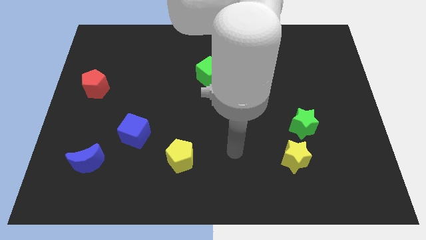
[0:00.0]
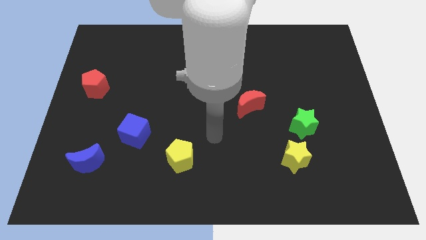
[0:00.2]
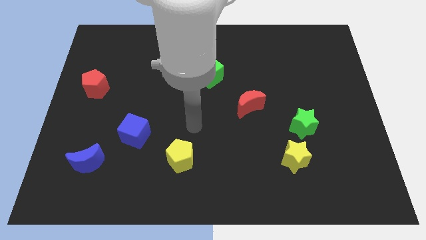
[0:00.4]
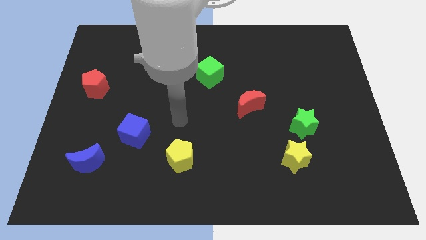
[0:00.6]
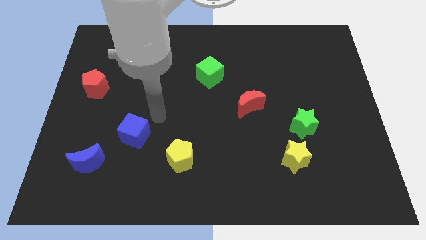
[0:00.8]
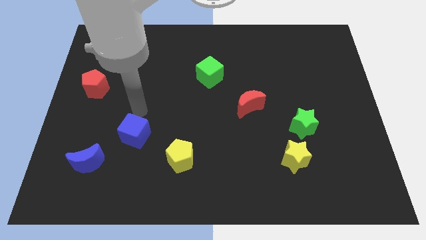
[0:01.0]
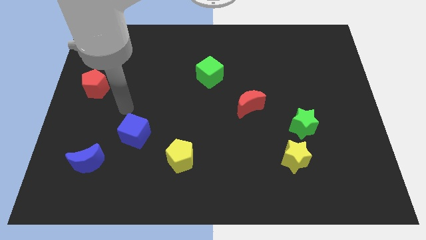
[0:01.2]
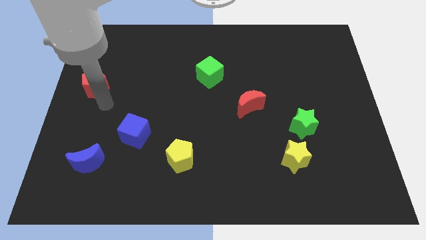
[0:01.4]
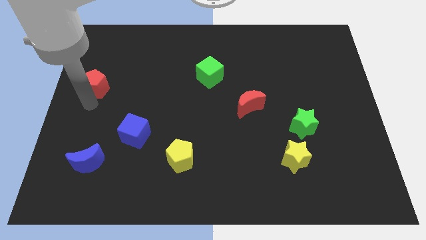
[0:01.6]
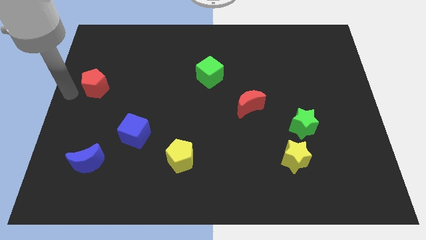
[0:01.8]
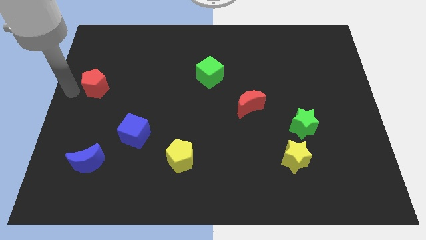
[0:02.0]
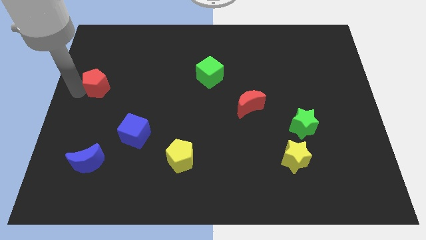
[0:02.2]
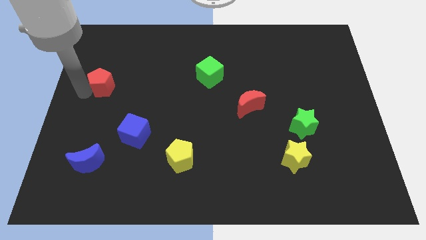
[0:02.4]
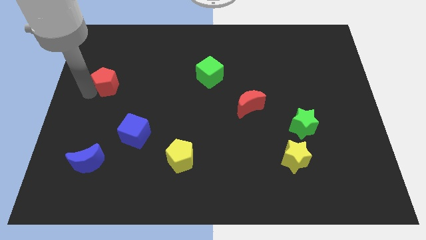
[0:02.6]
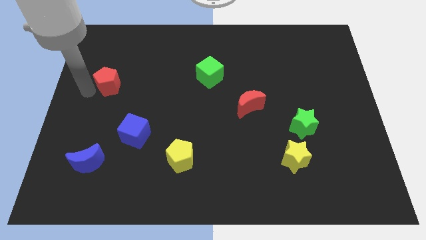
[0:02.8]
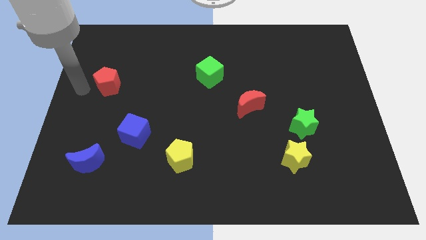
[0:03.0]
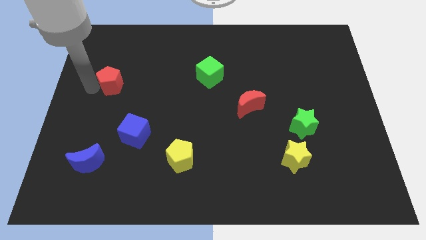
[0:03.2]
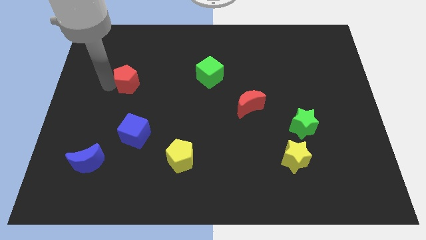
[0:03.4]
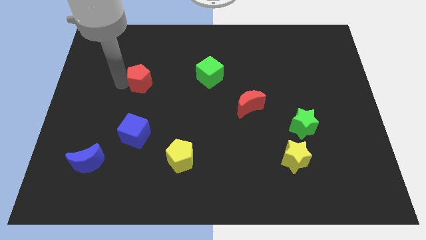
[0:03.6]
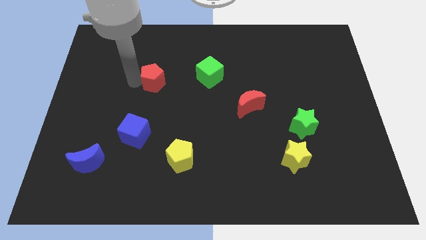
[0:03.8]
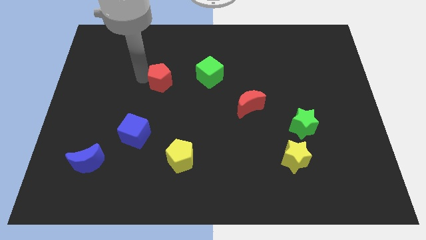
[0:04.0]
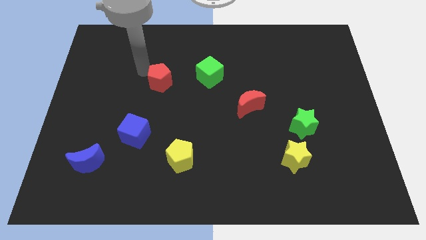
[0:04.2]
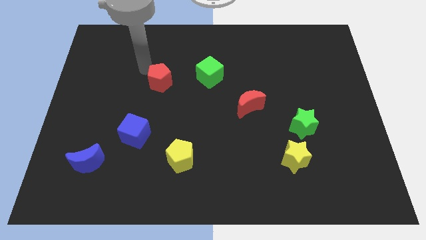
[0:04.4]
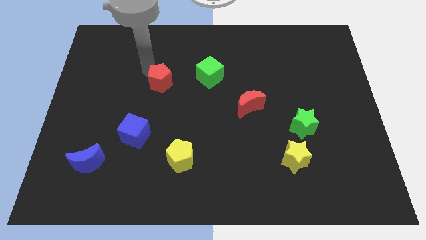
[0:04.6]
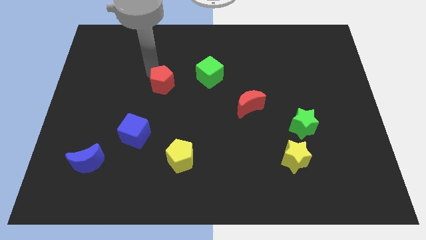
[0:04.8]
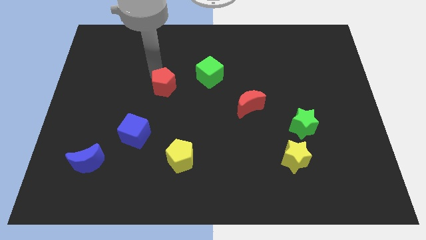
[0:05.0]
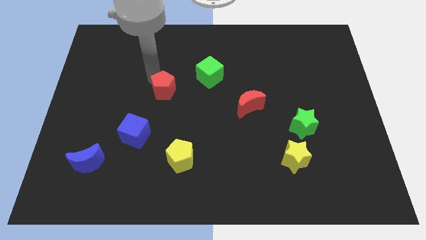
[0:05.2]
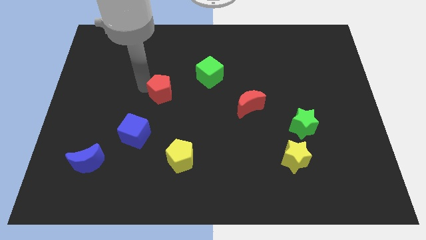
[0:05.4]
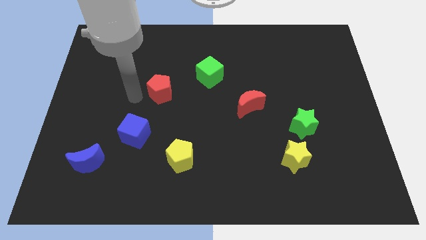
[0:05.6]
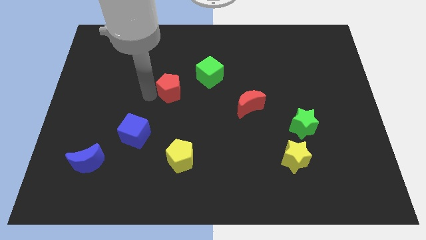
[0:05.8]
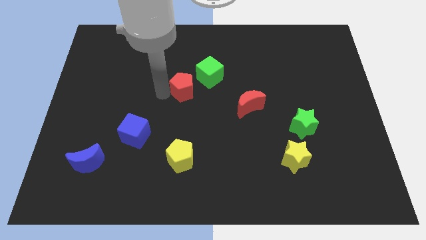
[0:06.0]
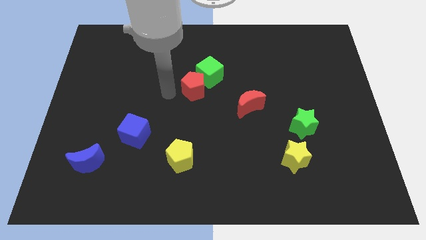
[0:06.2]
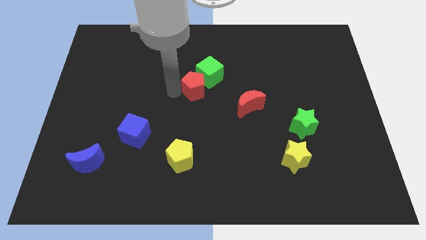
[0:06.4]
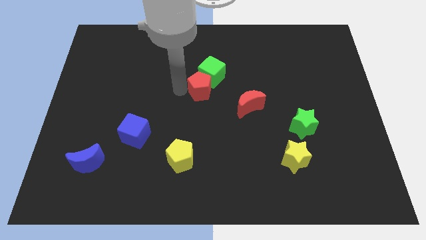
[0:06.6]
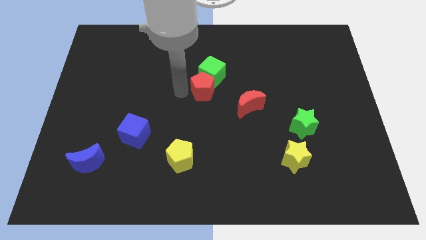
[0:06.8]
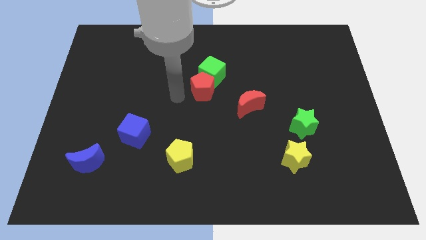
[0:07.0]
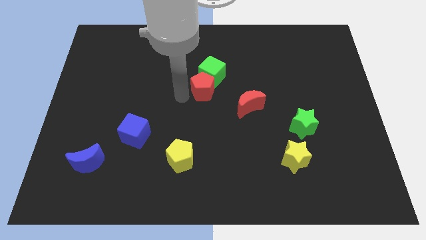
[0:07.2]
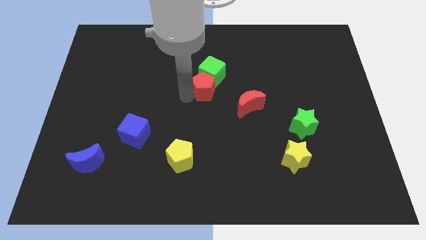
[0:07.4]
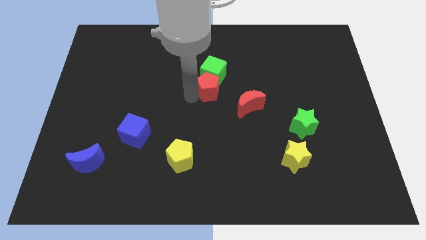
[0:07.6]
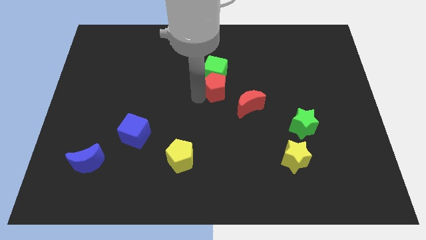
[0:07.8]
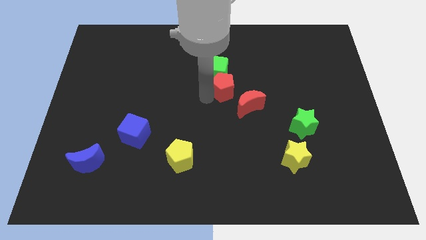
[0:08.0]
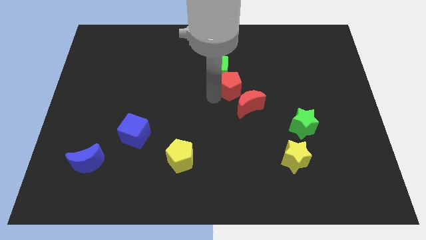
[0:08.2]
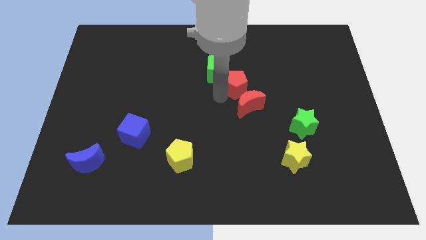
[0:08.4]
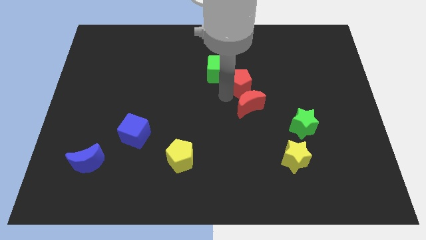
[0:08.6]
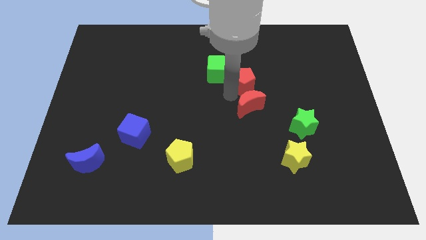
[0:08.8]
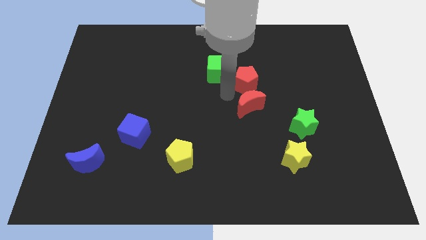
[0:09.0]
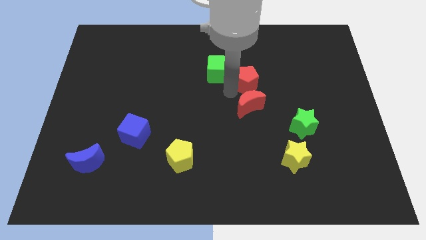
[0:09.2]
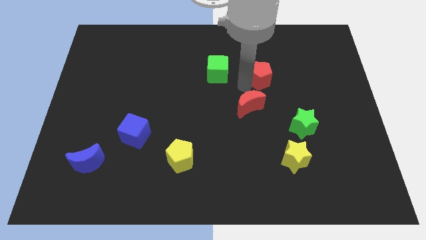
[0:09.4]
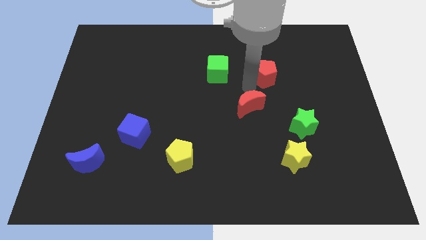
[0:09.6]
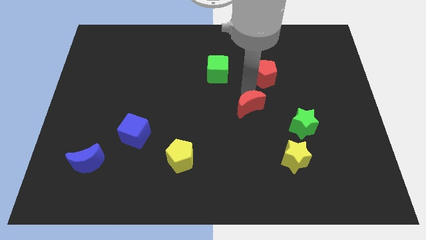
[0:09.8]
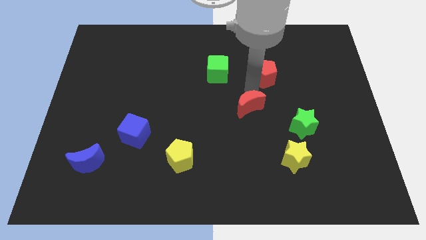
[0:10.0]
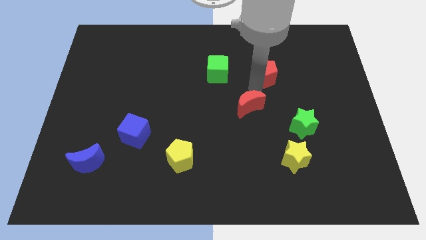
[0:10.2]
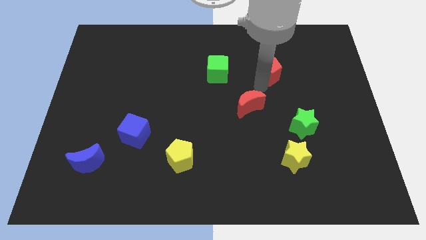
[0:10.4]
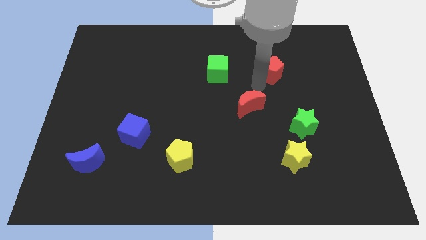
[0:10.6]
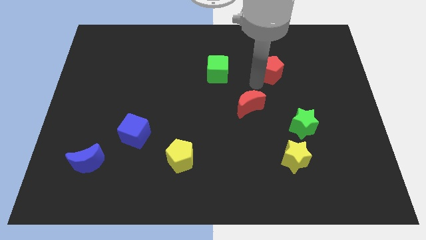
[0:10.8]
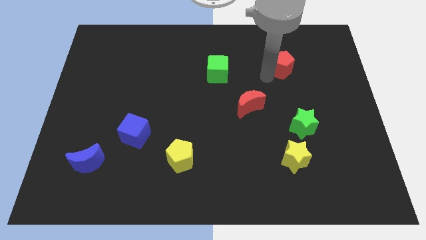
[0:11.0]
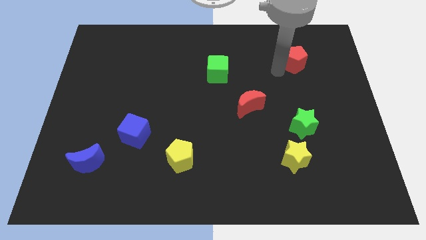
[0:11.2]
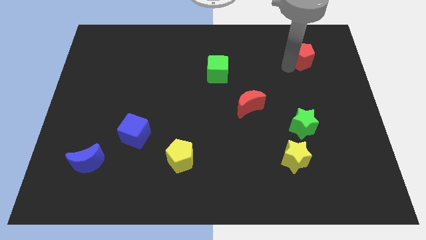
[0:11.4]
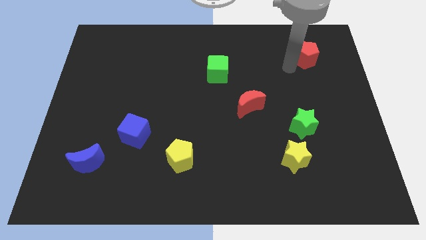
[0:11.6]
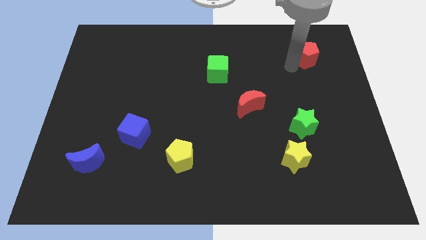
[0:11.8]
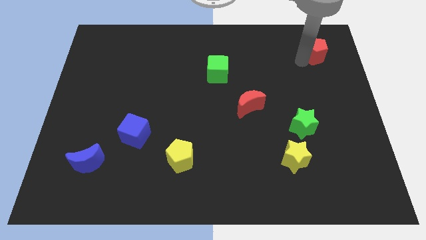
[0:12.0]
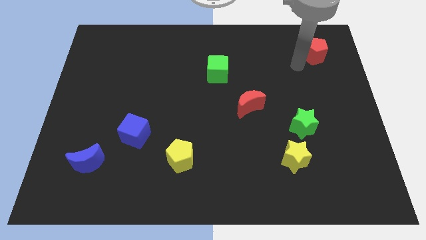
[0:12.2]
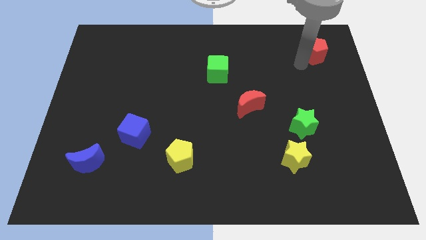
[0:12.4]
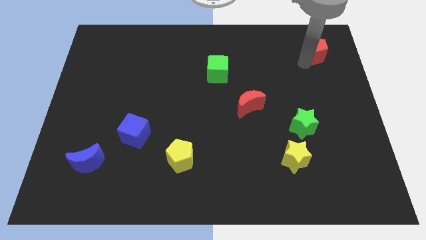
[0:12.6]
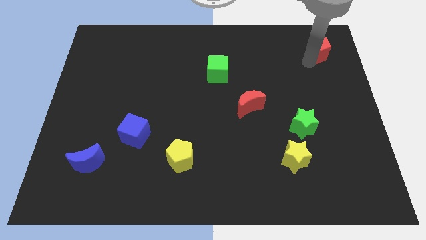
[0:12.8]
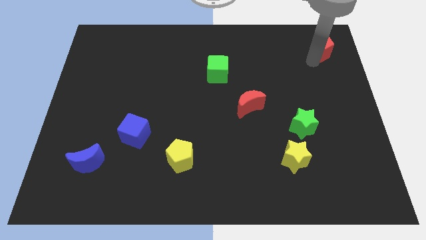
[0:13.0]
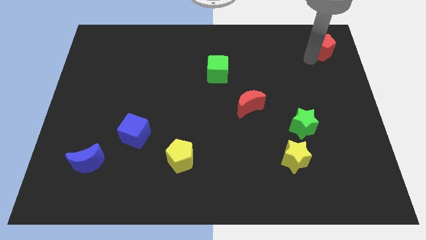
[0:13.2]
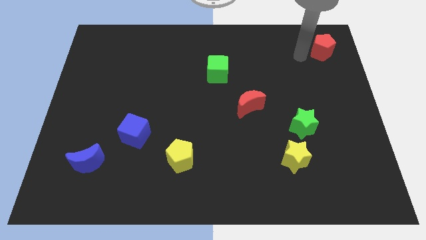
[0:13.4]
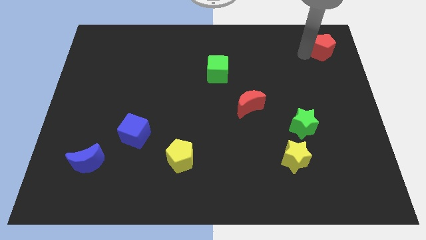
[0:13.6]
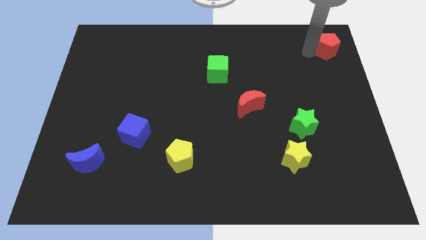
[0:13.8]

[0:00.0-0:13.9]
move the red pentagon to the upper right corner

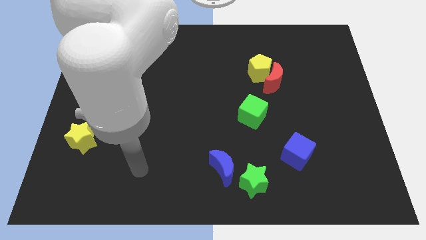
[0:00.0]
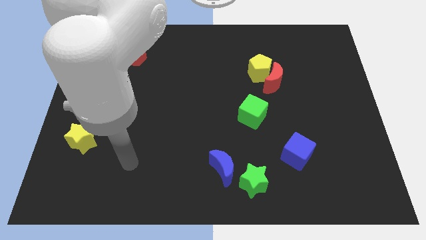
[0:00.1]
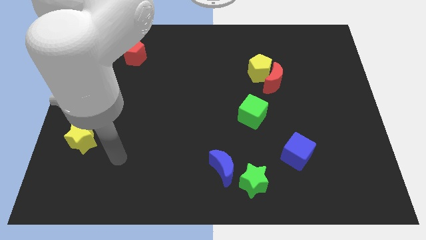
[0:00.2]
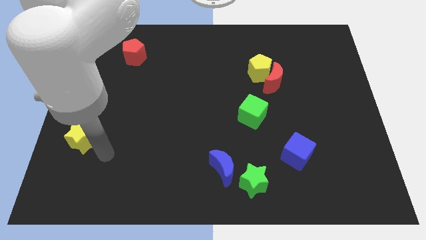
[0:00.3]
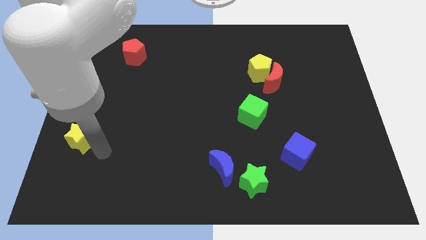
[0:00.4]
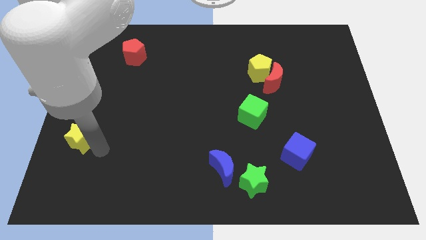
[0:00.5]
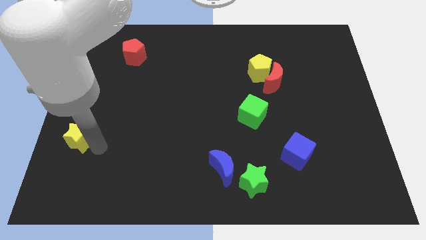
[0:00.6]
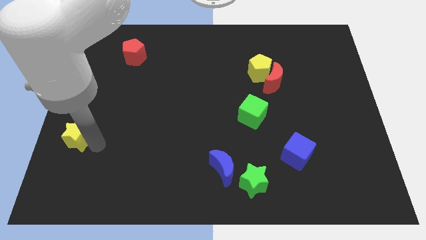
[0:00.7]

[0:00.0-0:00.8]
put the yellow star to the left side of the board
